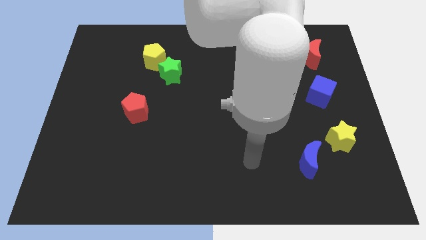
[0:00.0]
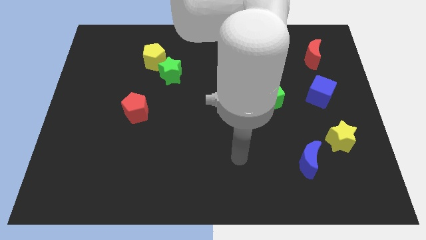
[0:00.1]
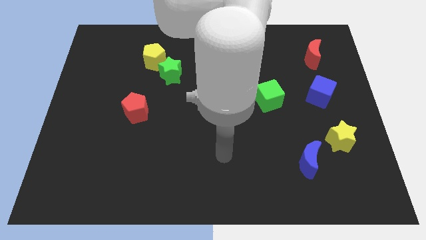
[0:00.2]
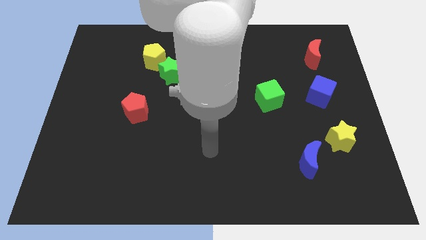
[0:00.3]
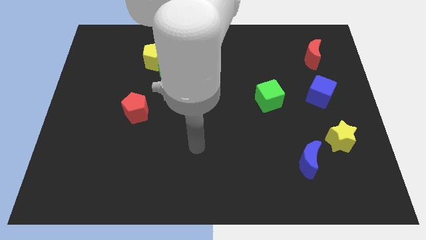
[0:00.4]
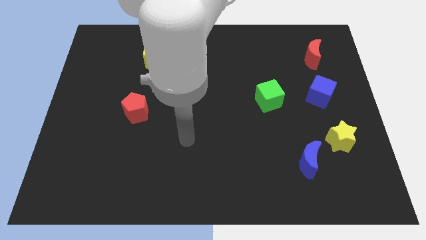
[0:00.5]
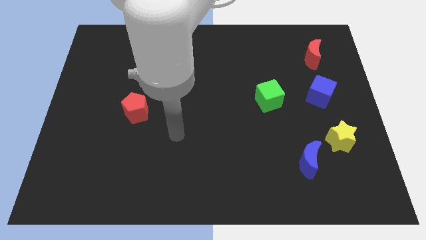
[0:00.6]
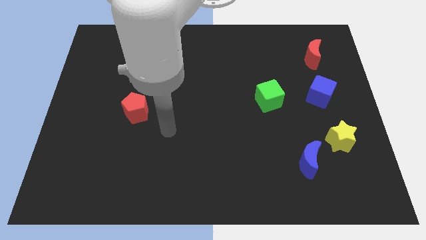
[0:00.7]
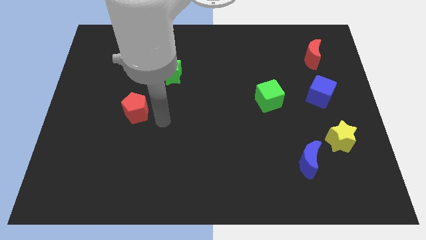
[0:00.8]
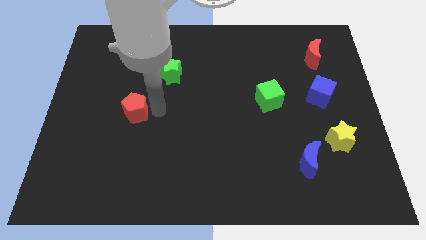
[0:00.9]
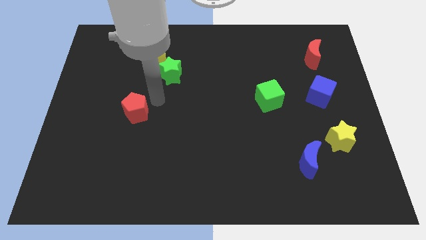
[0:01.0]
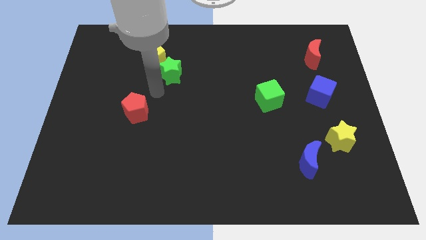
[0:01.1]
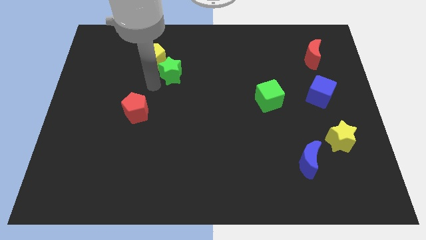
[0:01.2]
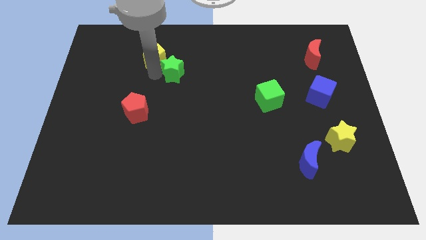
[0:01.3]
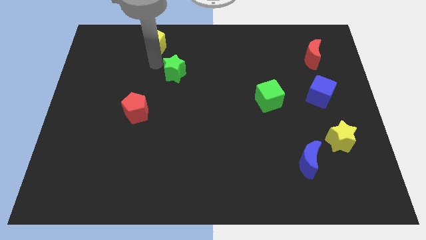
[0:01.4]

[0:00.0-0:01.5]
move the green star away from the yellow pentagon

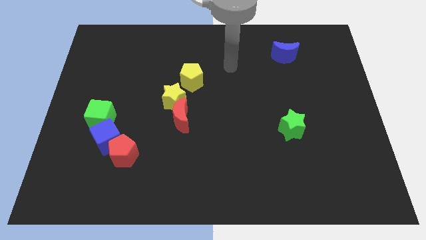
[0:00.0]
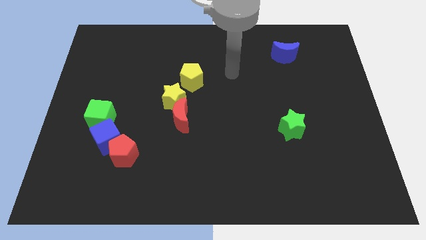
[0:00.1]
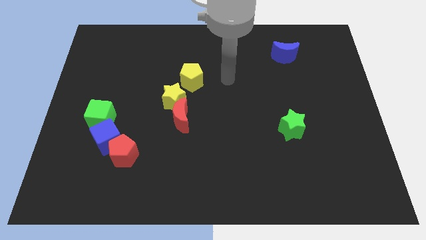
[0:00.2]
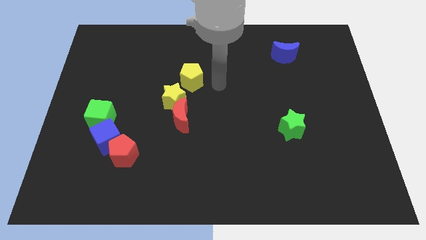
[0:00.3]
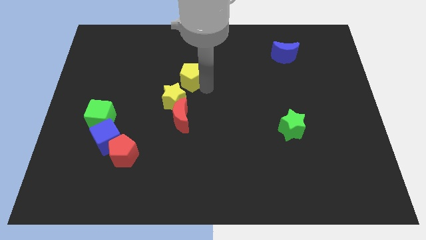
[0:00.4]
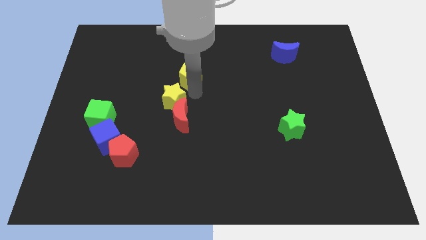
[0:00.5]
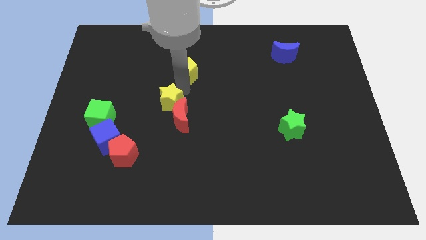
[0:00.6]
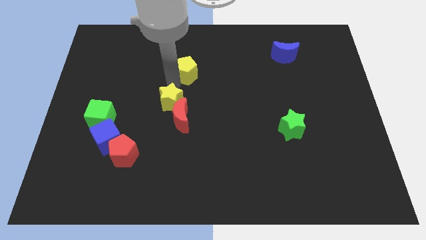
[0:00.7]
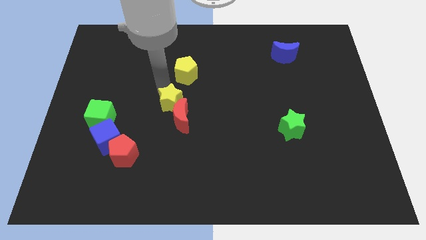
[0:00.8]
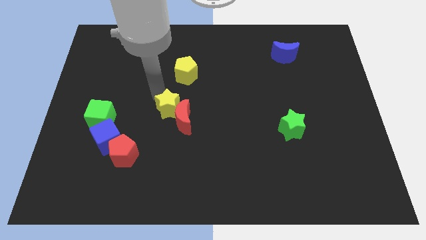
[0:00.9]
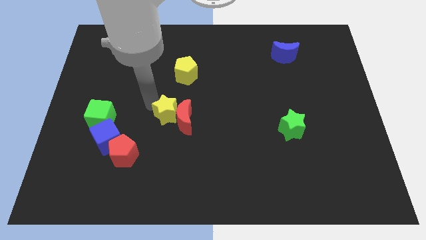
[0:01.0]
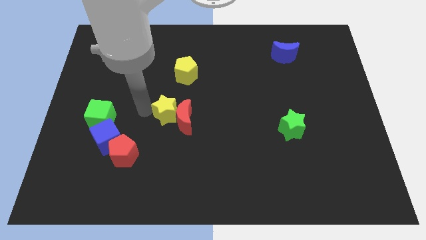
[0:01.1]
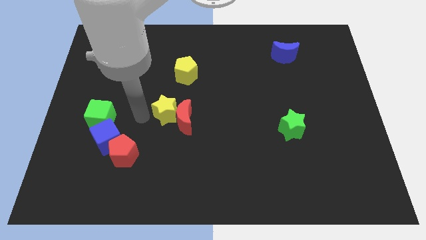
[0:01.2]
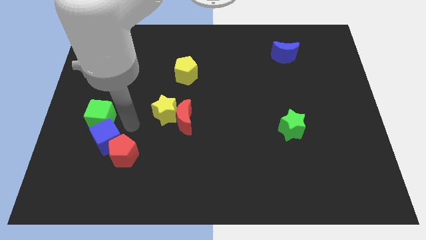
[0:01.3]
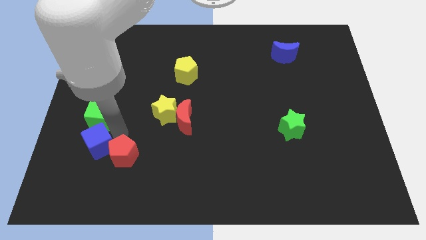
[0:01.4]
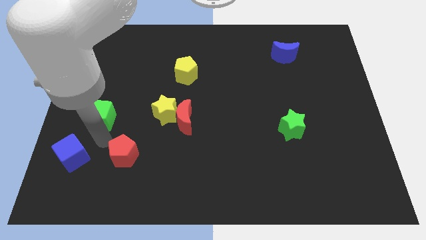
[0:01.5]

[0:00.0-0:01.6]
separate the red pentagon from the blue cube

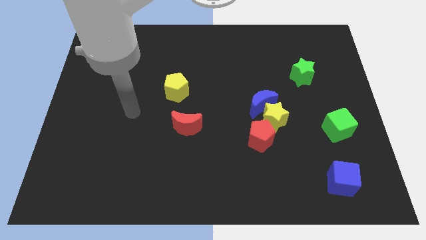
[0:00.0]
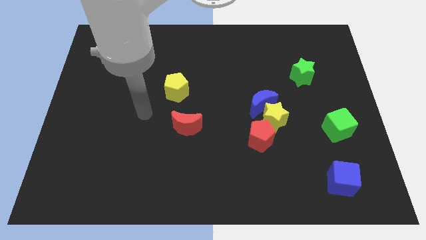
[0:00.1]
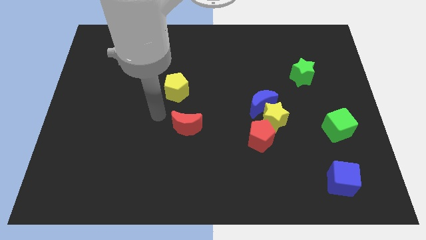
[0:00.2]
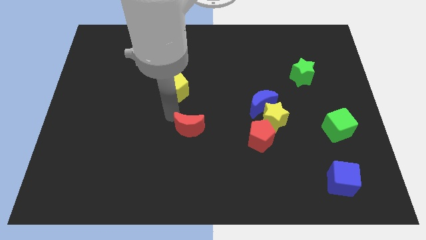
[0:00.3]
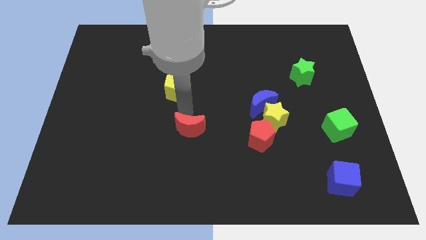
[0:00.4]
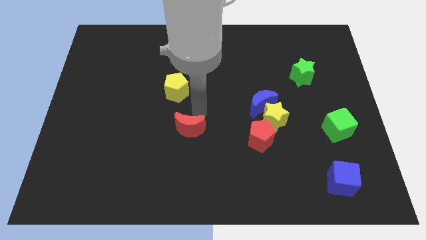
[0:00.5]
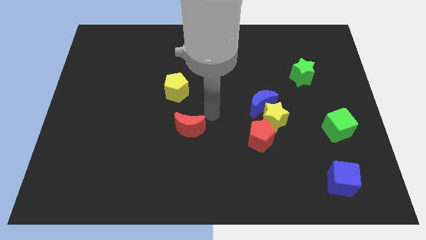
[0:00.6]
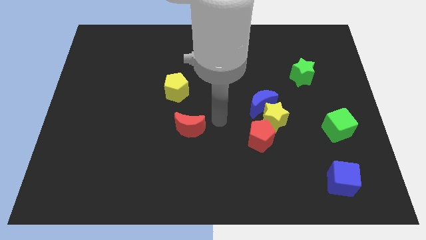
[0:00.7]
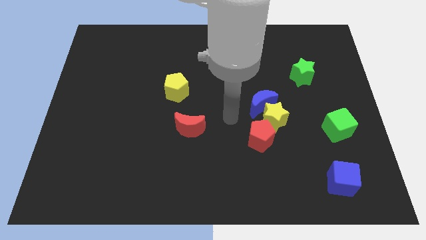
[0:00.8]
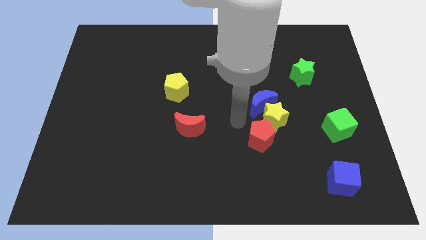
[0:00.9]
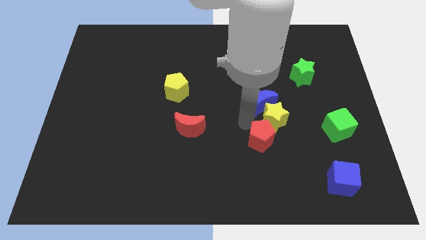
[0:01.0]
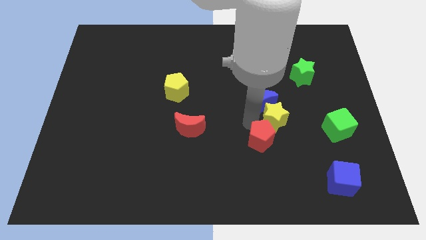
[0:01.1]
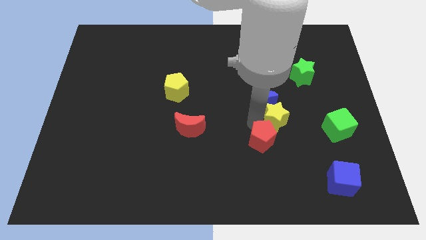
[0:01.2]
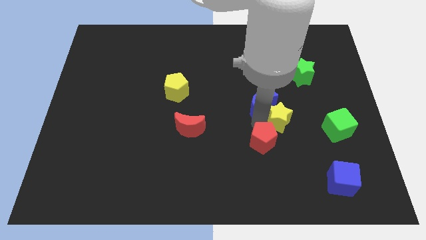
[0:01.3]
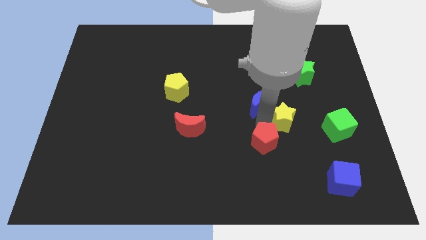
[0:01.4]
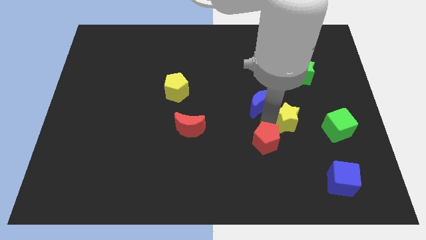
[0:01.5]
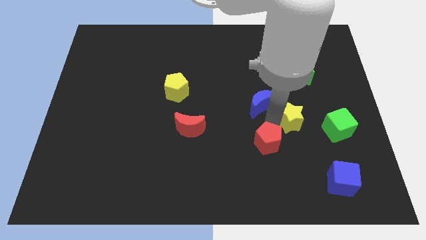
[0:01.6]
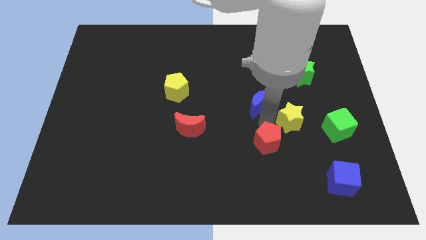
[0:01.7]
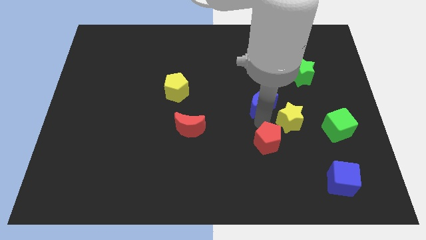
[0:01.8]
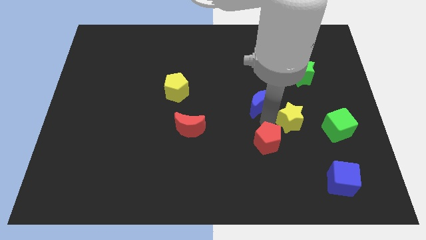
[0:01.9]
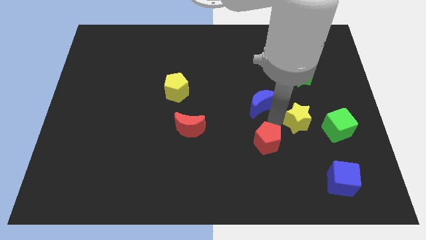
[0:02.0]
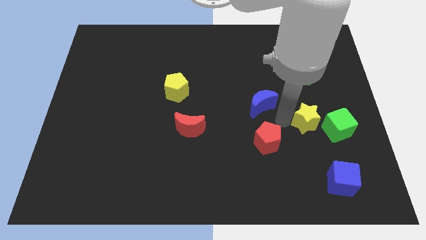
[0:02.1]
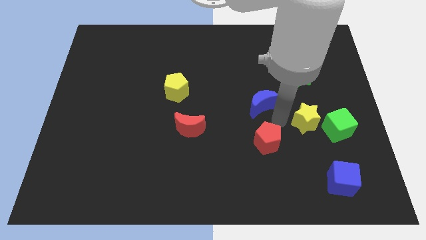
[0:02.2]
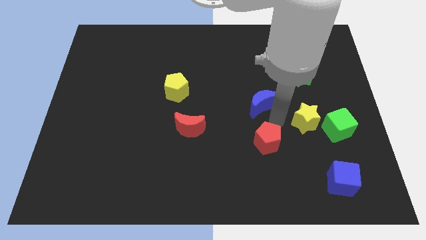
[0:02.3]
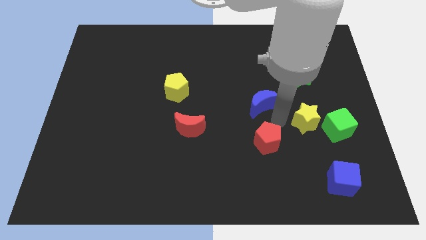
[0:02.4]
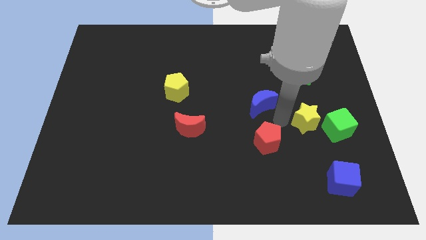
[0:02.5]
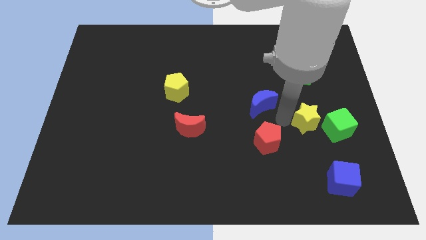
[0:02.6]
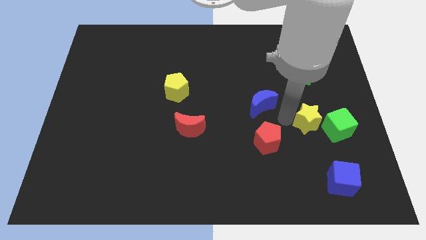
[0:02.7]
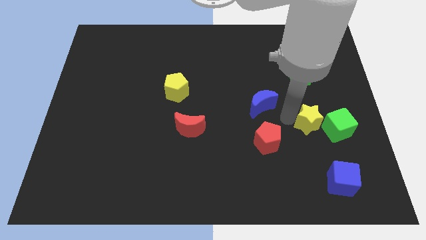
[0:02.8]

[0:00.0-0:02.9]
pull the yellow star apart from the blue moon and red pentagon

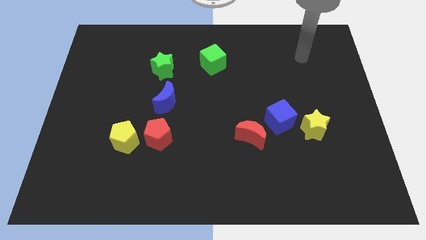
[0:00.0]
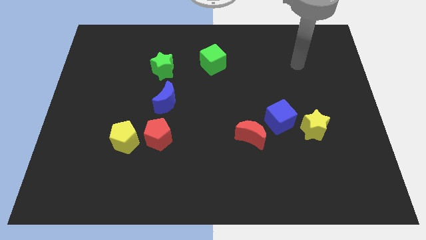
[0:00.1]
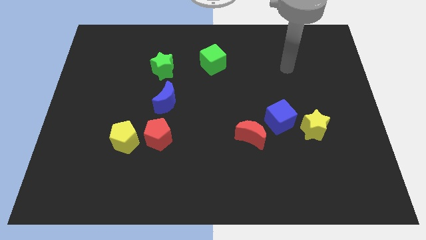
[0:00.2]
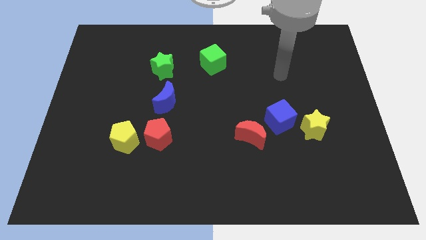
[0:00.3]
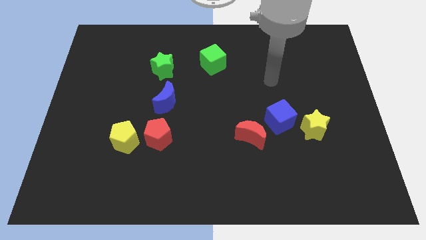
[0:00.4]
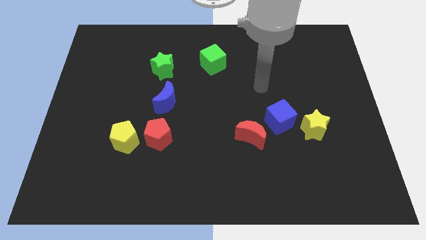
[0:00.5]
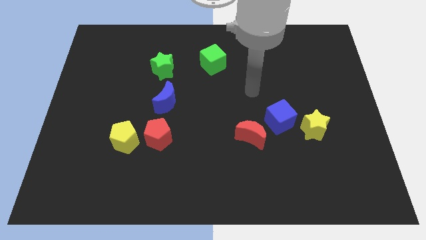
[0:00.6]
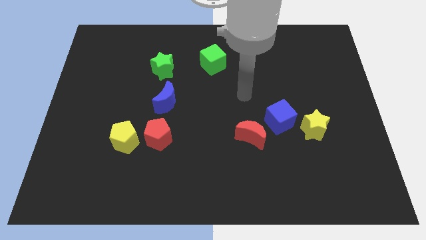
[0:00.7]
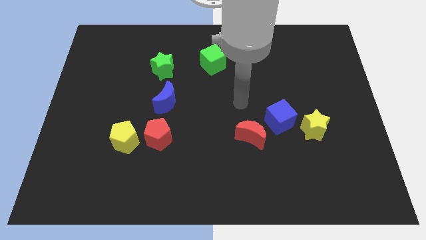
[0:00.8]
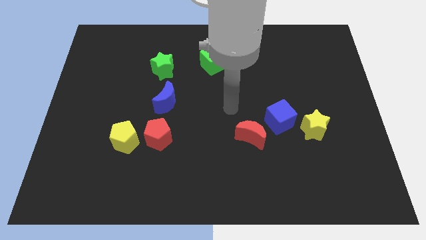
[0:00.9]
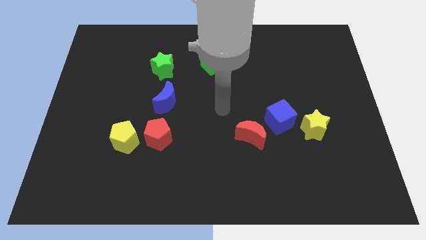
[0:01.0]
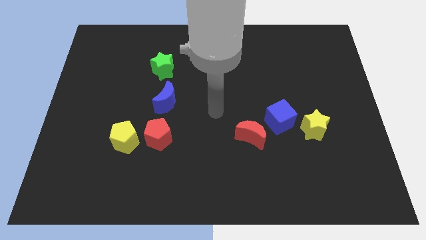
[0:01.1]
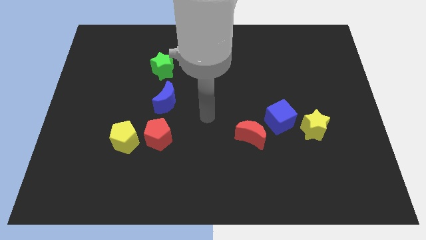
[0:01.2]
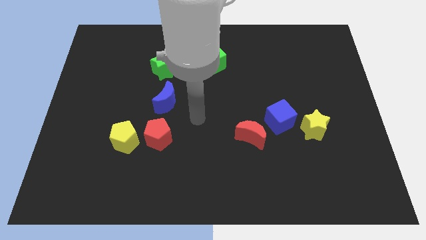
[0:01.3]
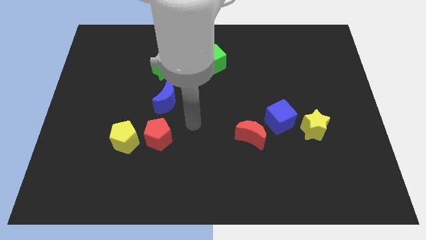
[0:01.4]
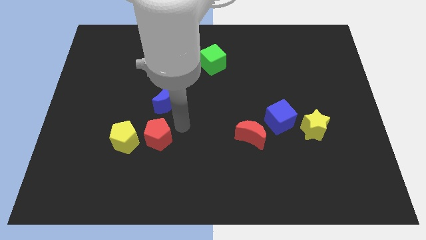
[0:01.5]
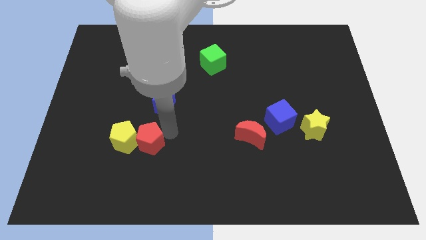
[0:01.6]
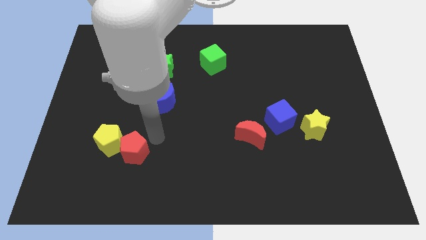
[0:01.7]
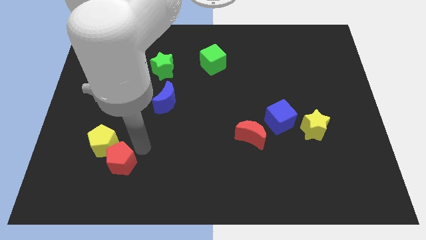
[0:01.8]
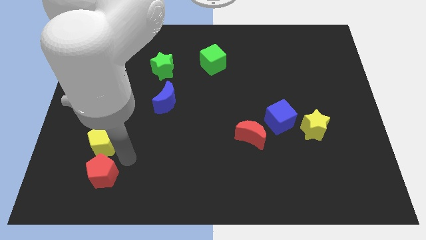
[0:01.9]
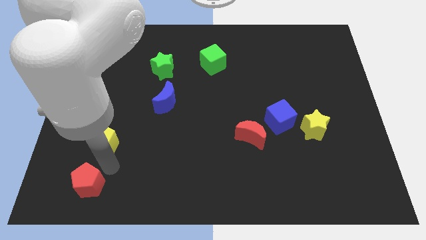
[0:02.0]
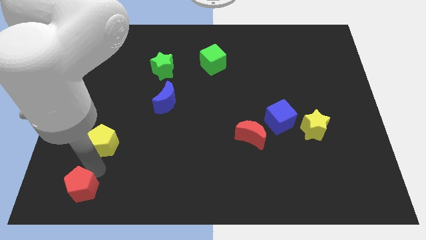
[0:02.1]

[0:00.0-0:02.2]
move the yellow pentagon away from the red pentagon

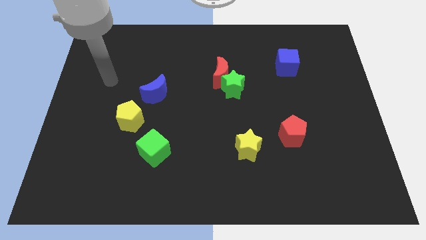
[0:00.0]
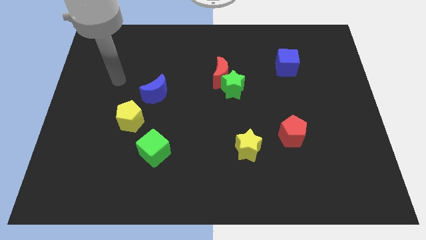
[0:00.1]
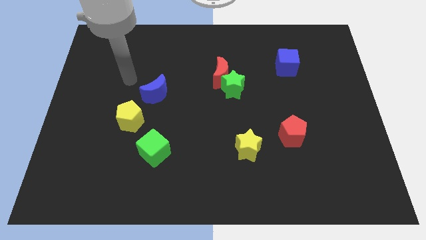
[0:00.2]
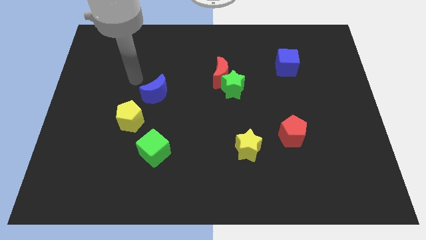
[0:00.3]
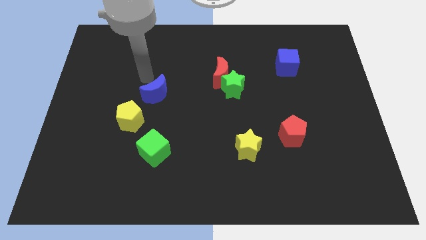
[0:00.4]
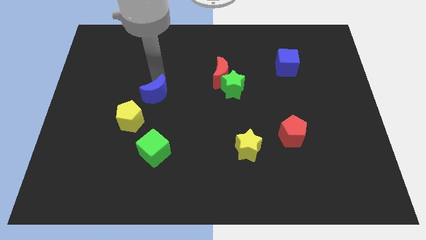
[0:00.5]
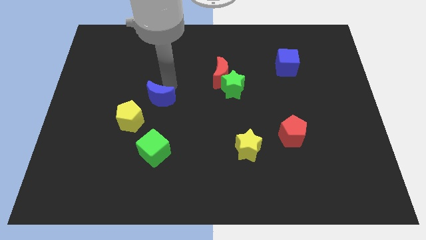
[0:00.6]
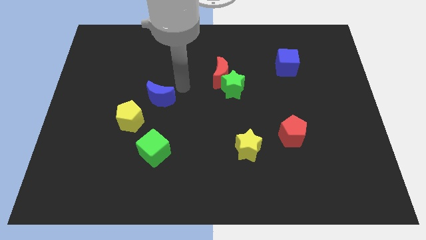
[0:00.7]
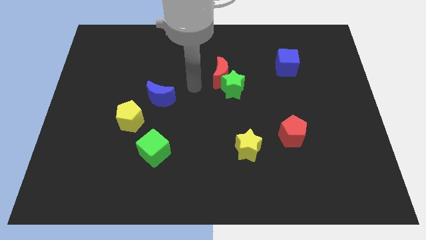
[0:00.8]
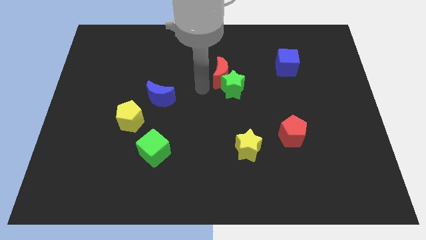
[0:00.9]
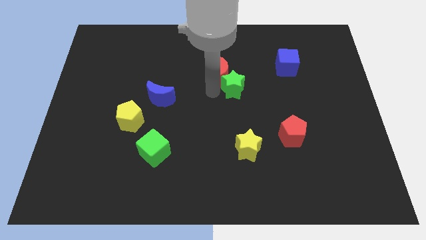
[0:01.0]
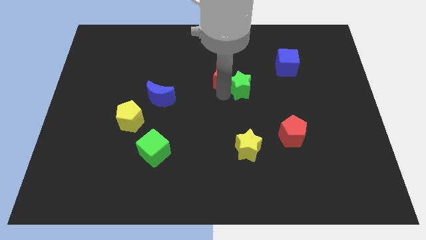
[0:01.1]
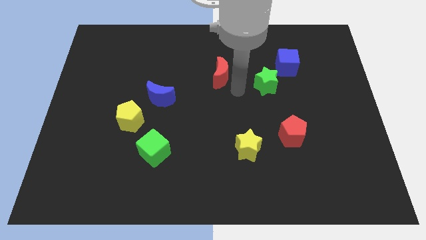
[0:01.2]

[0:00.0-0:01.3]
move the red moon away from the green star
